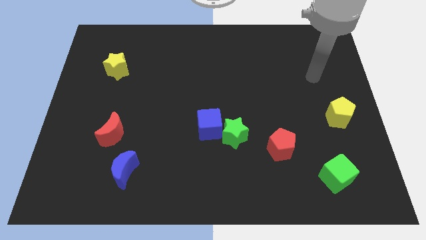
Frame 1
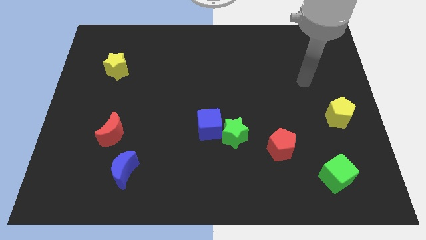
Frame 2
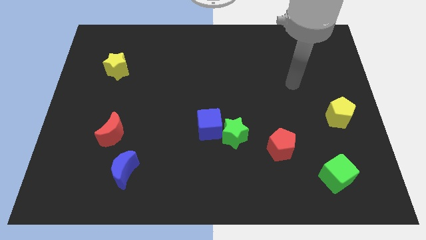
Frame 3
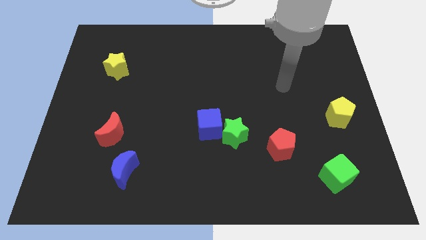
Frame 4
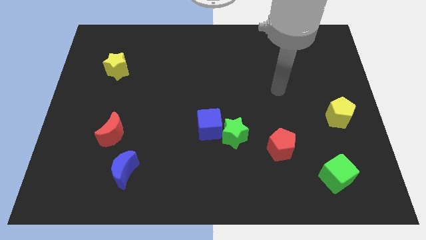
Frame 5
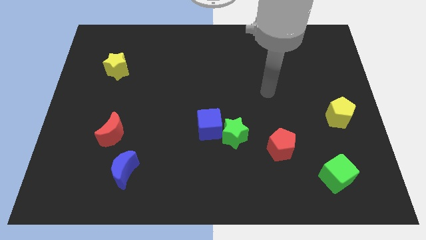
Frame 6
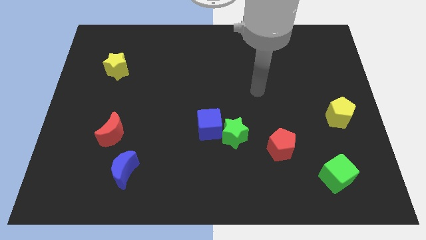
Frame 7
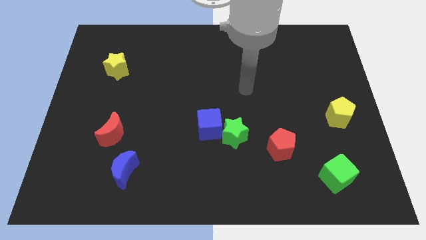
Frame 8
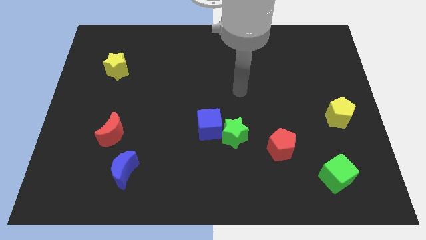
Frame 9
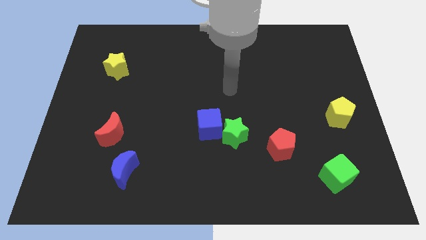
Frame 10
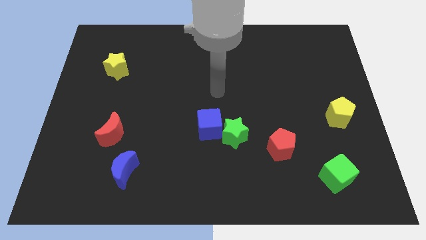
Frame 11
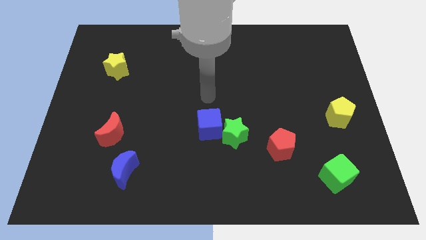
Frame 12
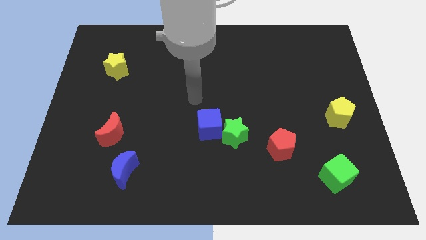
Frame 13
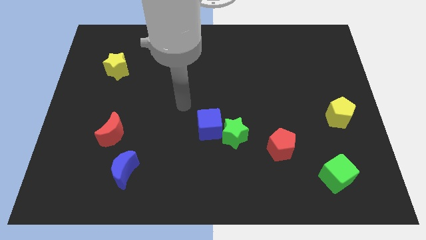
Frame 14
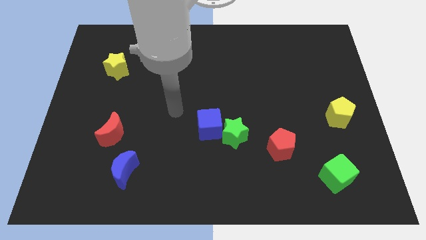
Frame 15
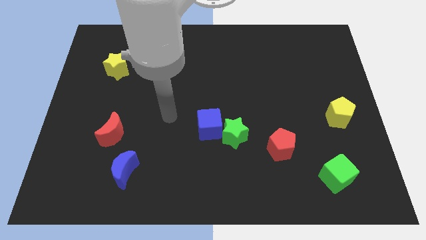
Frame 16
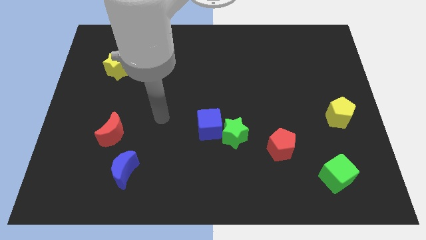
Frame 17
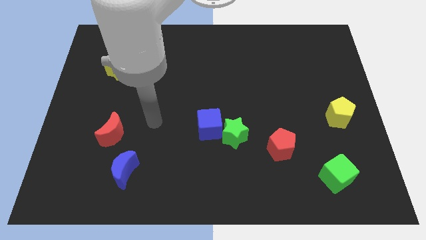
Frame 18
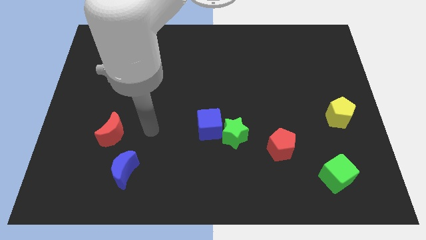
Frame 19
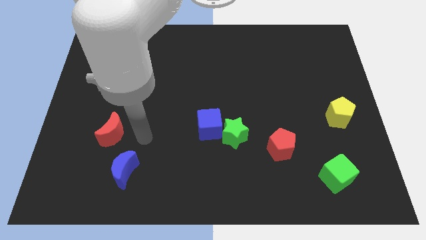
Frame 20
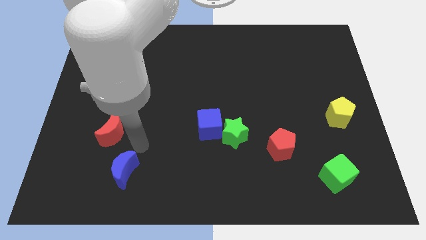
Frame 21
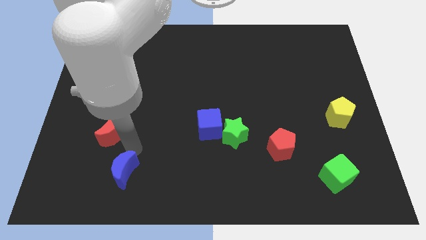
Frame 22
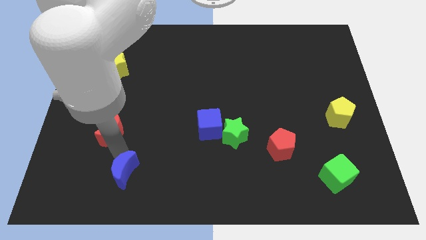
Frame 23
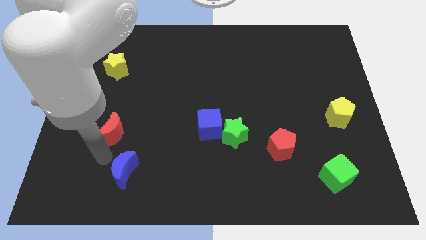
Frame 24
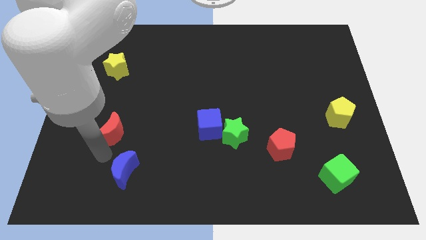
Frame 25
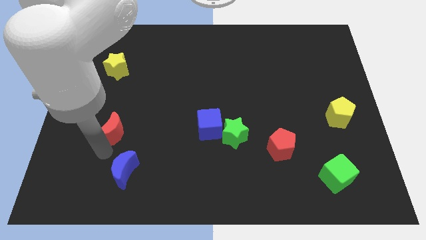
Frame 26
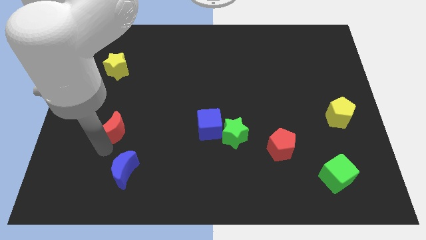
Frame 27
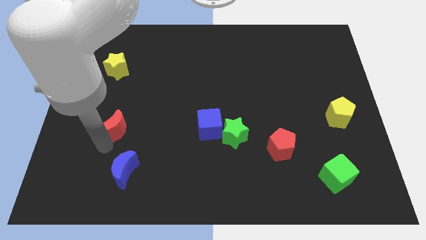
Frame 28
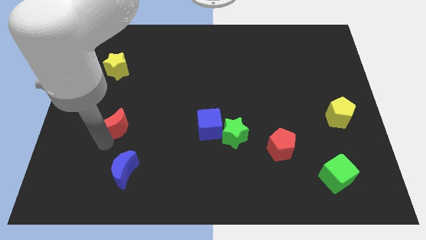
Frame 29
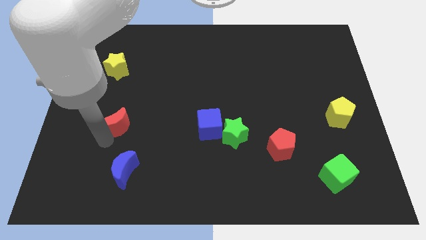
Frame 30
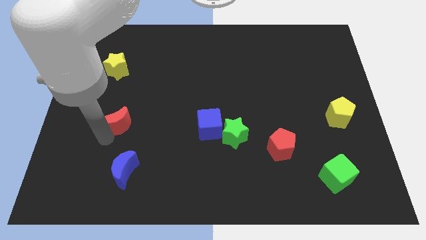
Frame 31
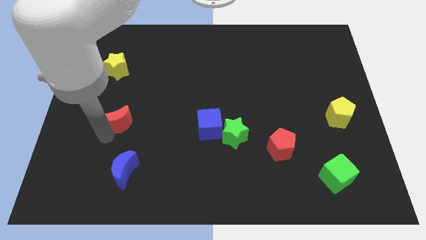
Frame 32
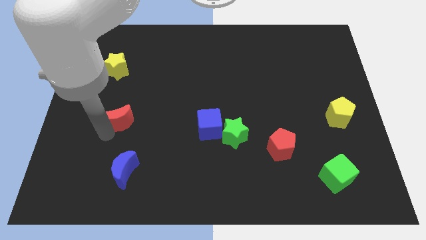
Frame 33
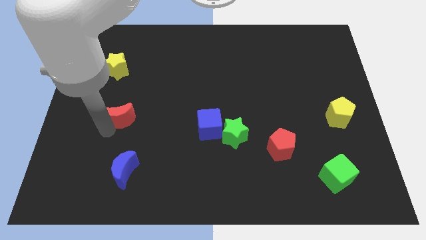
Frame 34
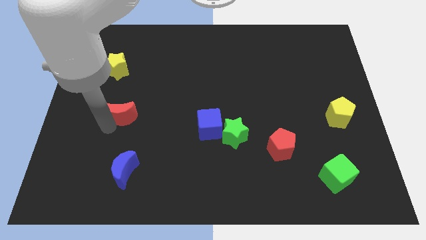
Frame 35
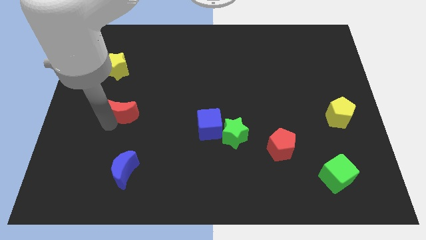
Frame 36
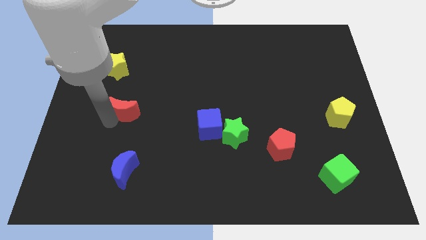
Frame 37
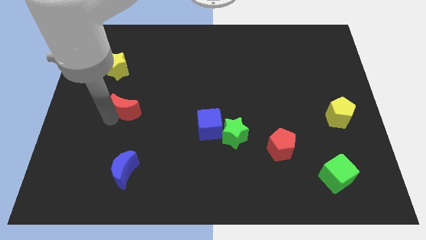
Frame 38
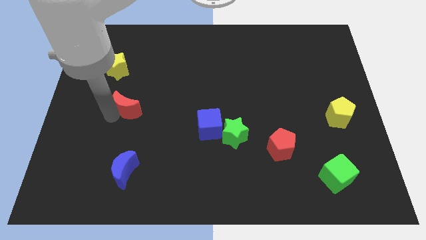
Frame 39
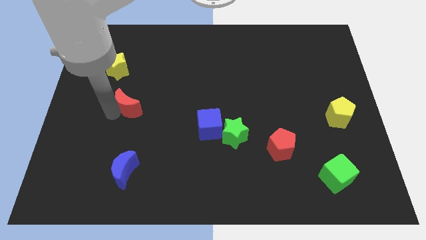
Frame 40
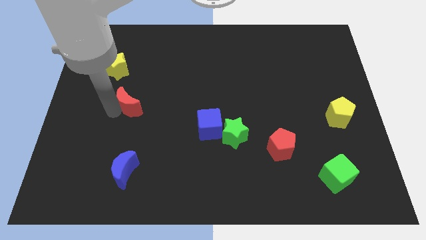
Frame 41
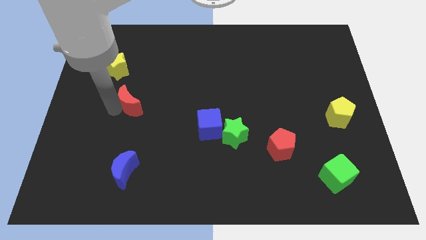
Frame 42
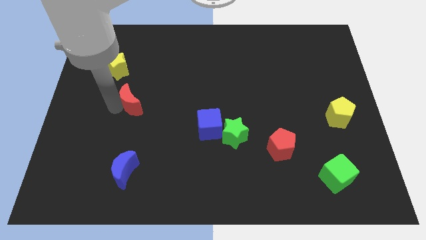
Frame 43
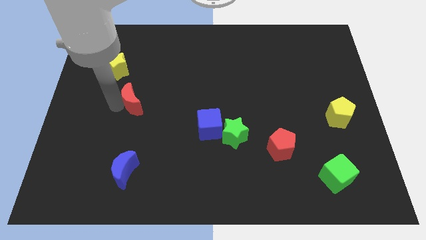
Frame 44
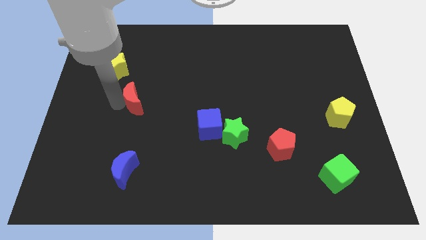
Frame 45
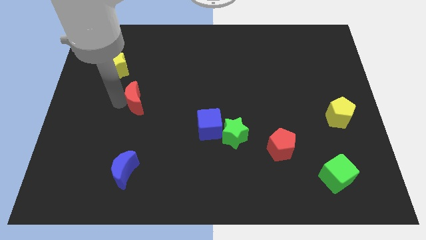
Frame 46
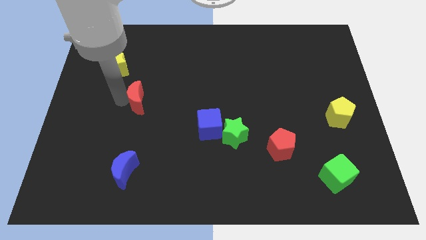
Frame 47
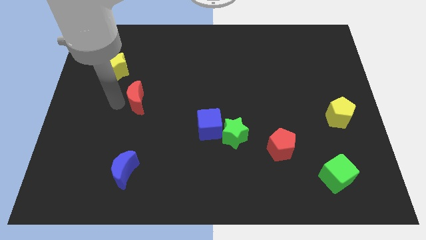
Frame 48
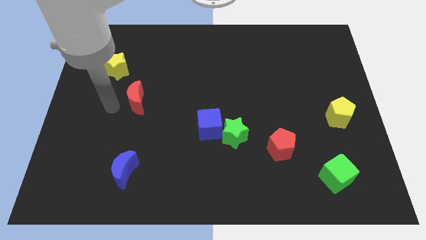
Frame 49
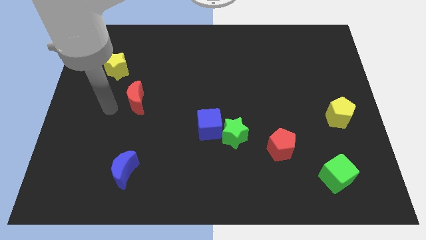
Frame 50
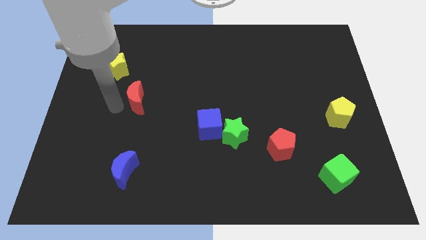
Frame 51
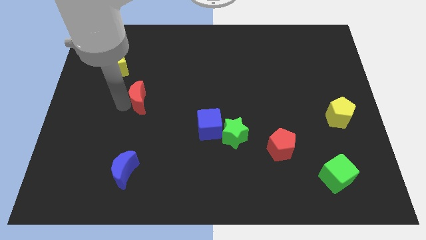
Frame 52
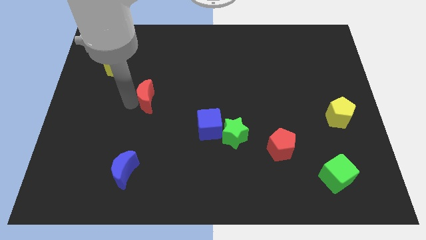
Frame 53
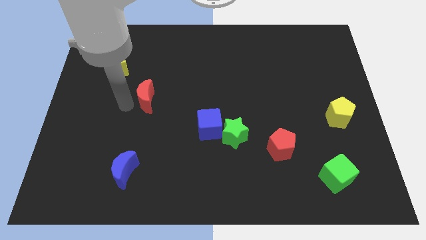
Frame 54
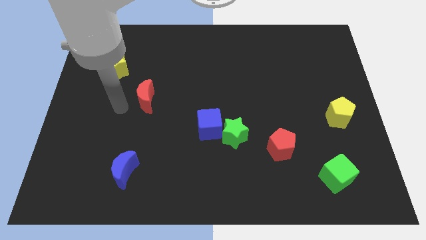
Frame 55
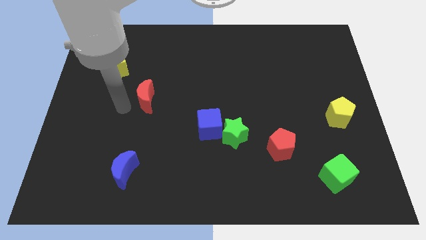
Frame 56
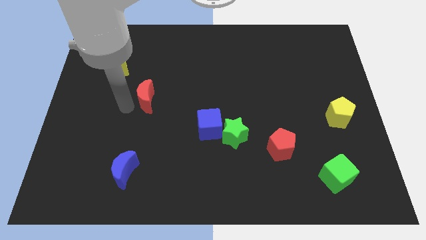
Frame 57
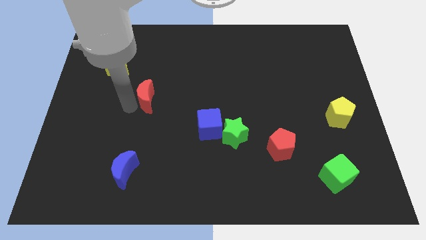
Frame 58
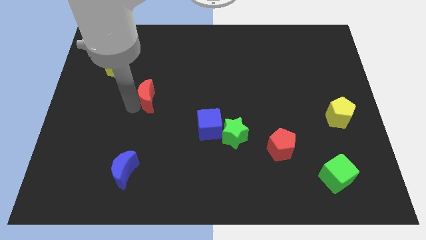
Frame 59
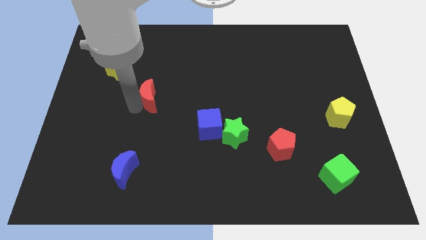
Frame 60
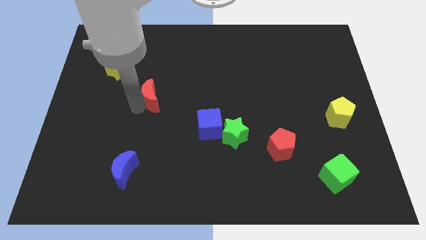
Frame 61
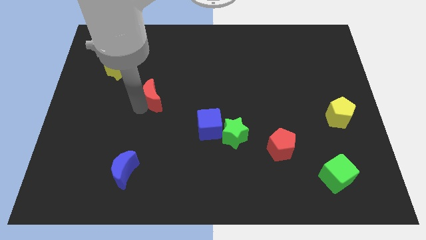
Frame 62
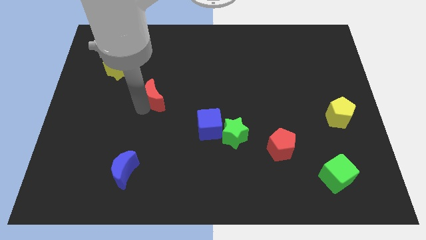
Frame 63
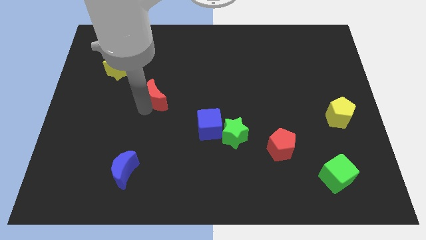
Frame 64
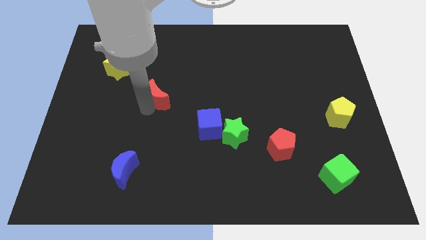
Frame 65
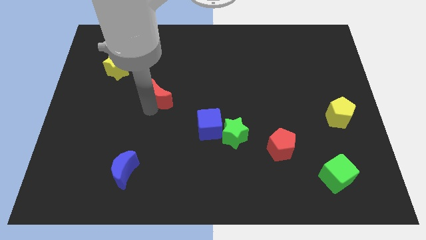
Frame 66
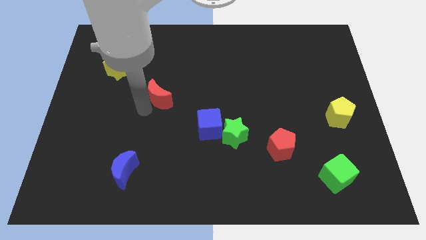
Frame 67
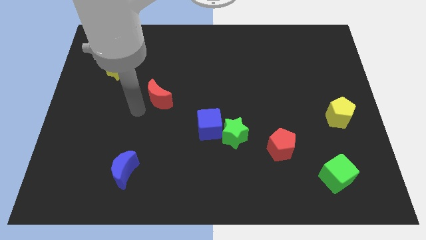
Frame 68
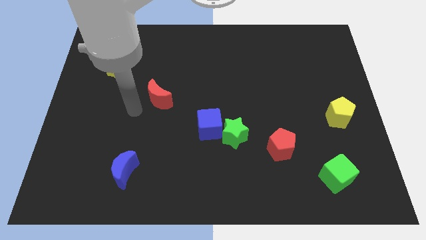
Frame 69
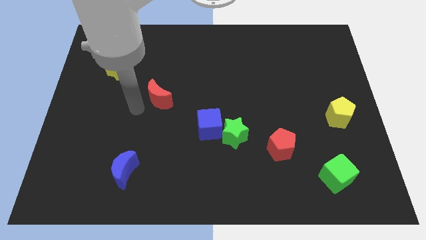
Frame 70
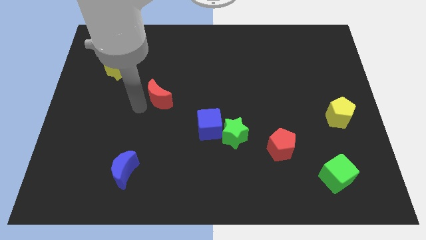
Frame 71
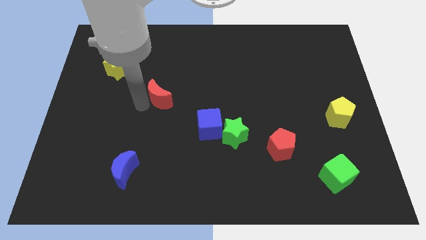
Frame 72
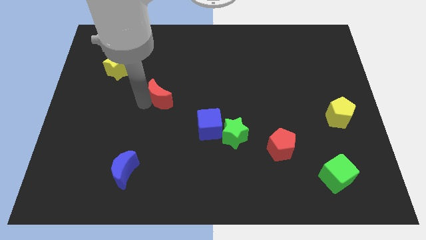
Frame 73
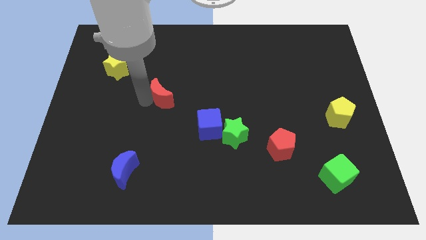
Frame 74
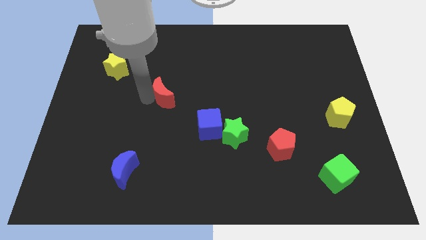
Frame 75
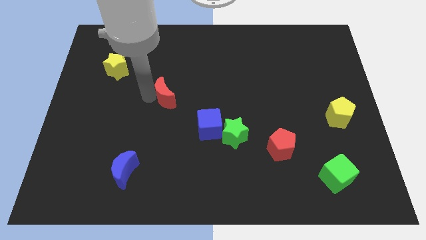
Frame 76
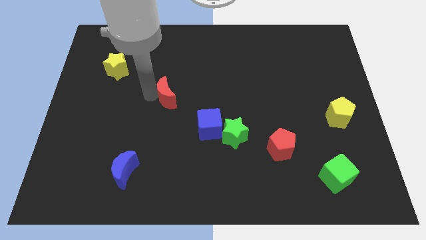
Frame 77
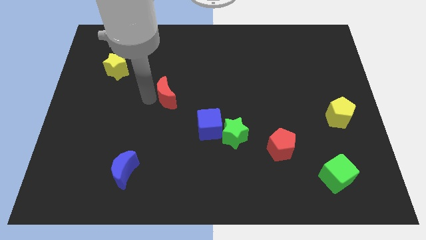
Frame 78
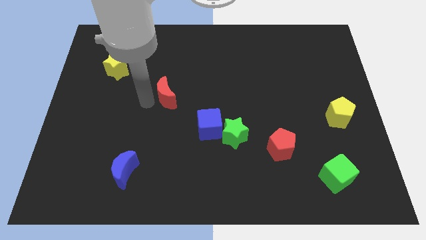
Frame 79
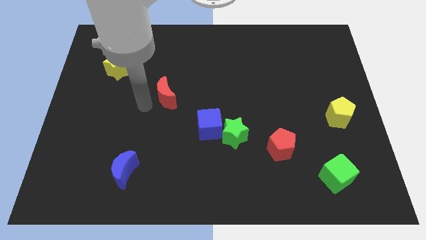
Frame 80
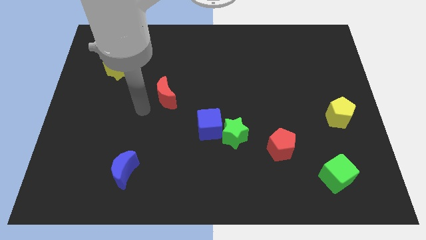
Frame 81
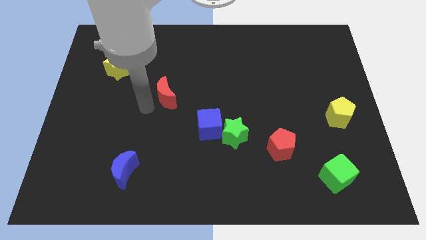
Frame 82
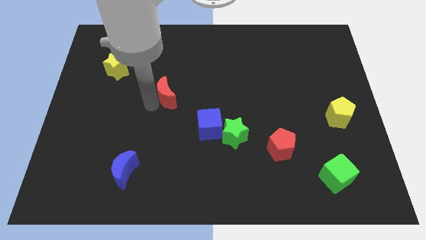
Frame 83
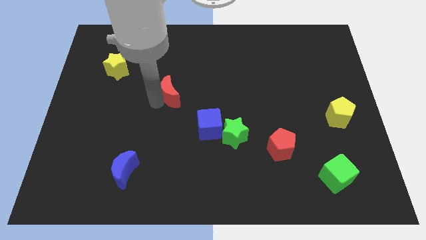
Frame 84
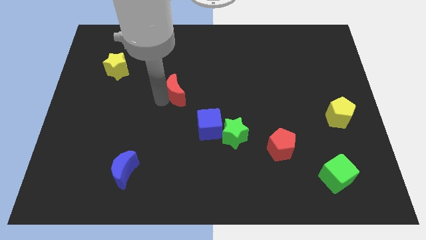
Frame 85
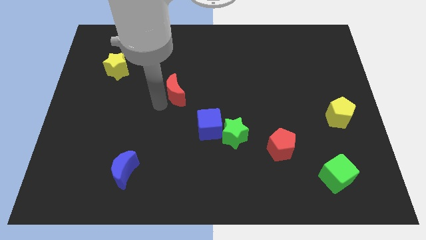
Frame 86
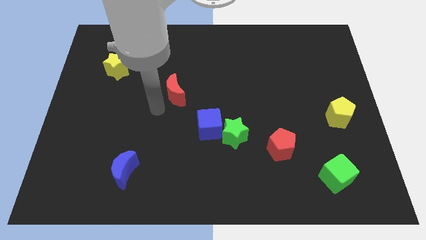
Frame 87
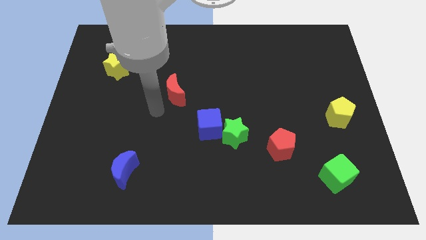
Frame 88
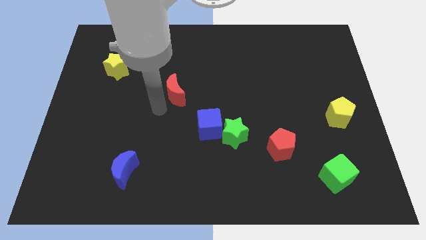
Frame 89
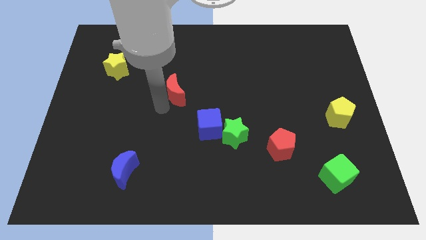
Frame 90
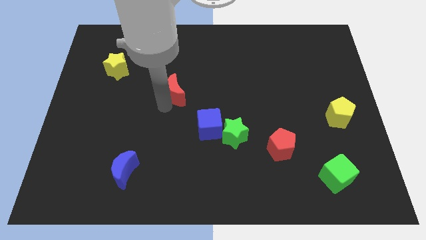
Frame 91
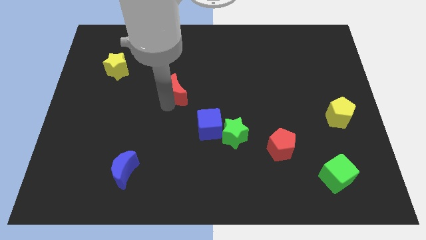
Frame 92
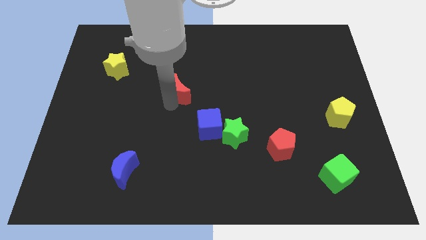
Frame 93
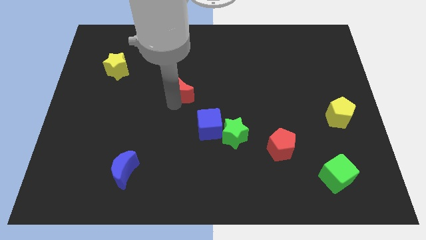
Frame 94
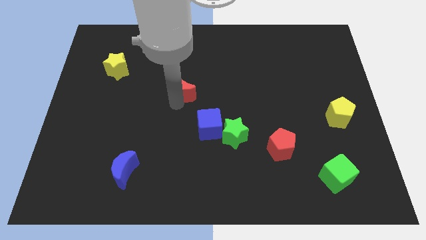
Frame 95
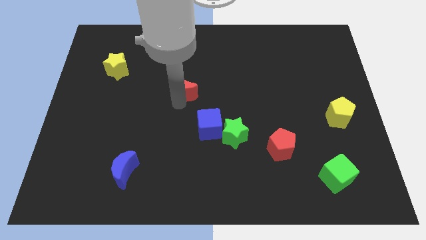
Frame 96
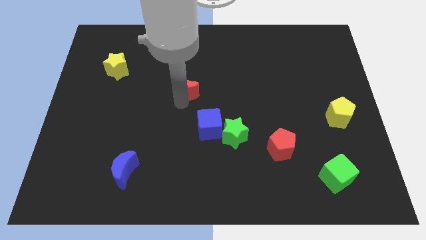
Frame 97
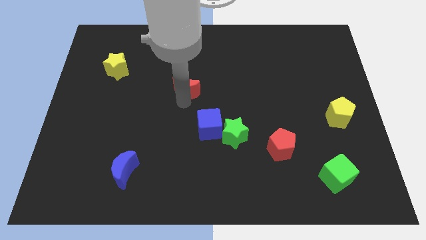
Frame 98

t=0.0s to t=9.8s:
move the red moon upwards and then right
